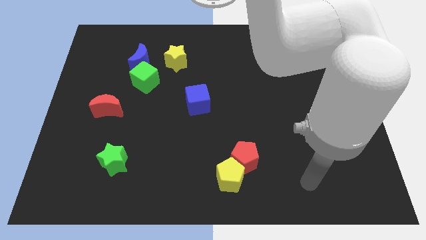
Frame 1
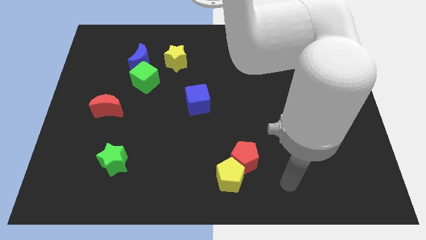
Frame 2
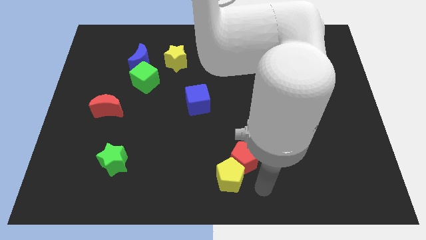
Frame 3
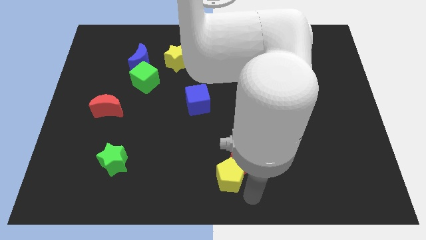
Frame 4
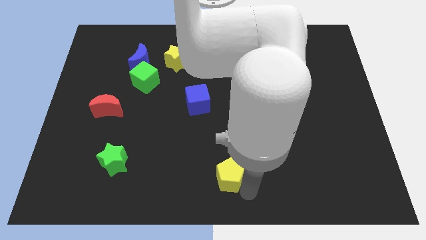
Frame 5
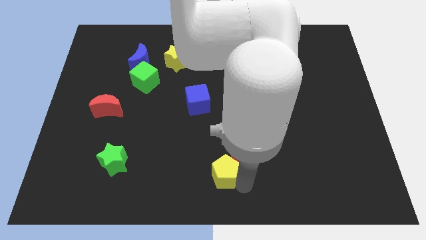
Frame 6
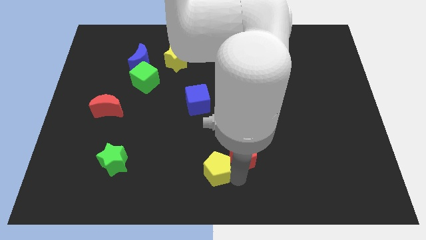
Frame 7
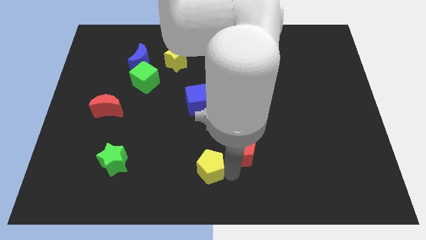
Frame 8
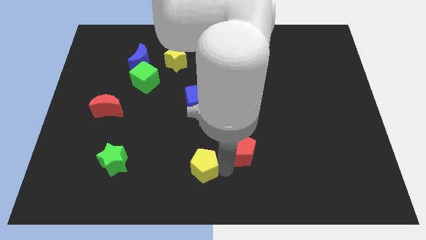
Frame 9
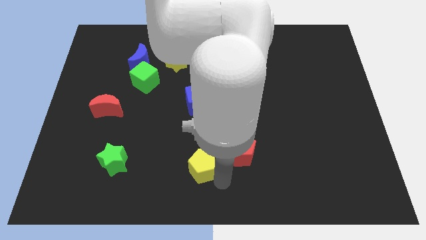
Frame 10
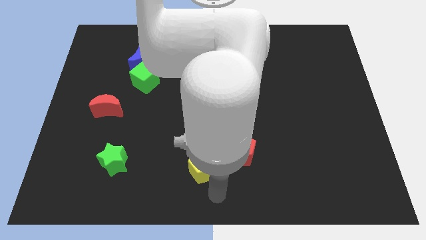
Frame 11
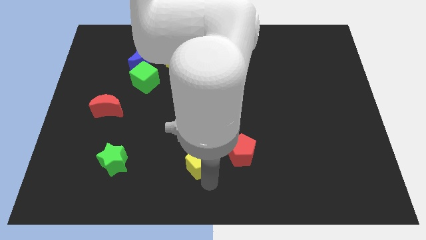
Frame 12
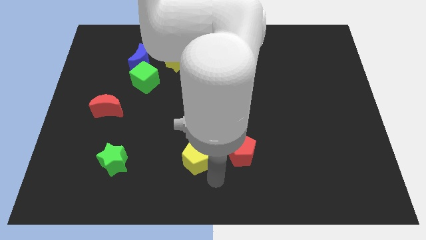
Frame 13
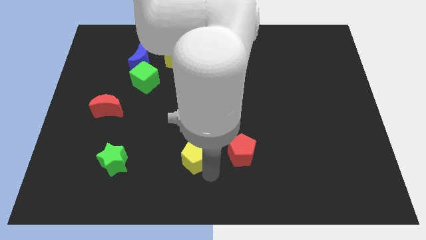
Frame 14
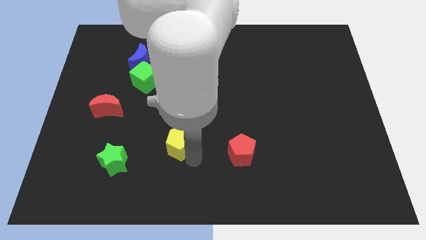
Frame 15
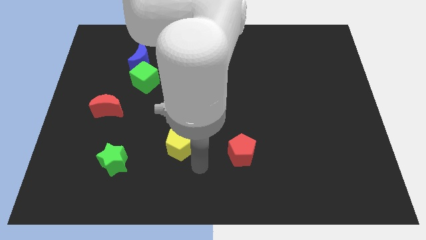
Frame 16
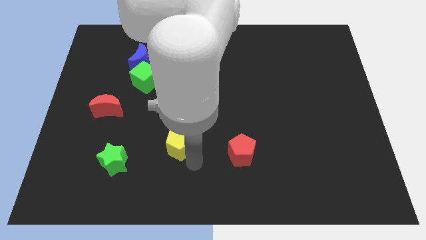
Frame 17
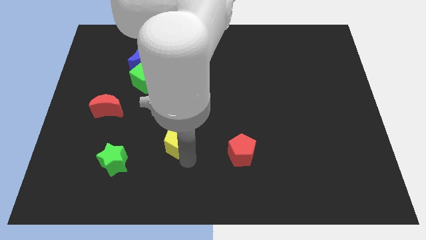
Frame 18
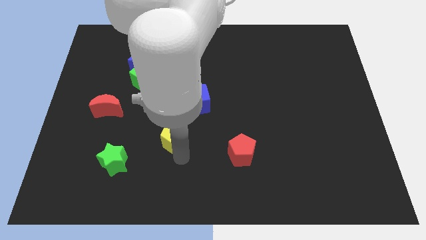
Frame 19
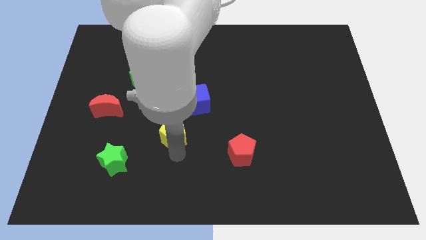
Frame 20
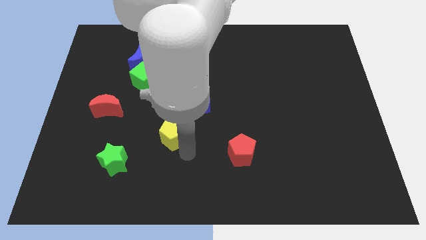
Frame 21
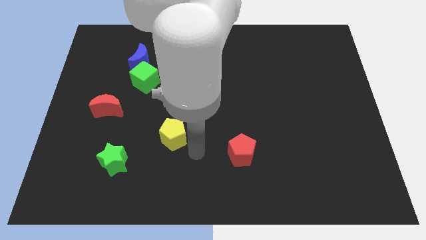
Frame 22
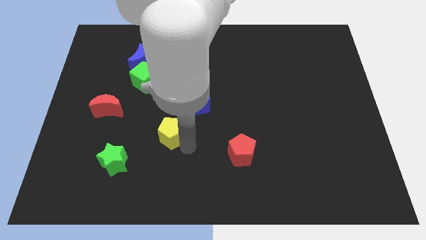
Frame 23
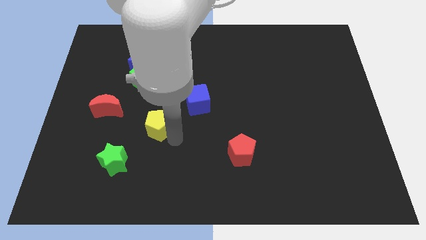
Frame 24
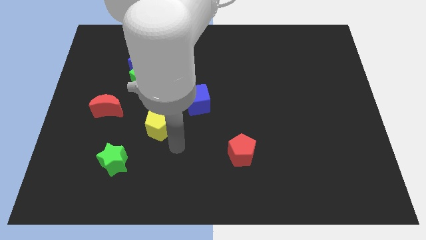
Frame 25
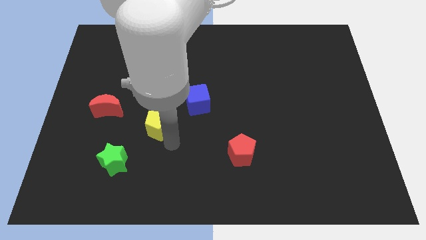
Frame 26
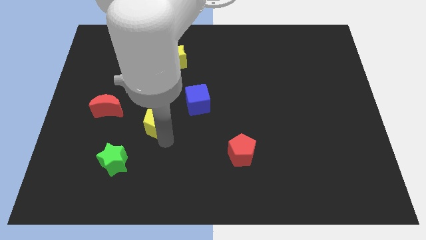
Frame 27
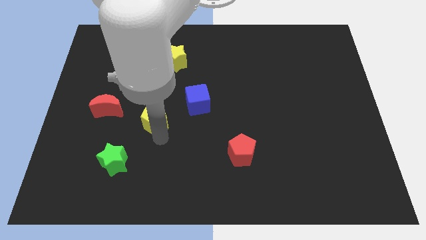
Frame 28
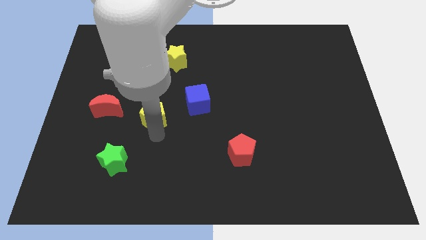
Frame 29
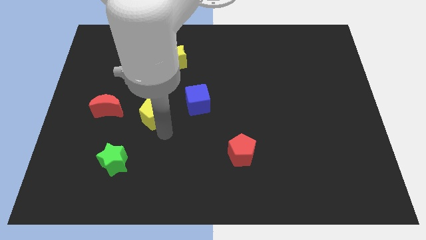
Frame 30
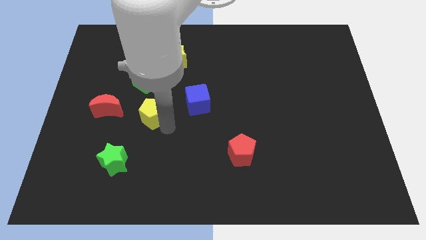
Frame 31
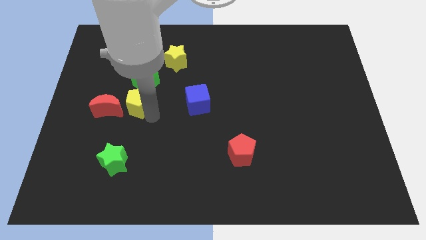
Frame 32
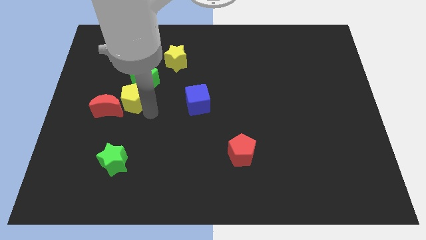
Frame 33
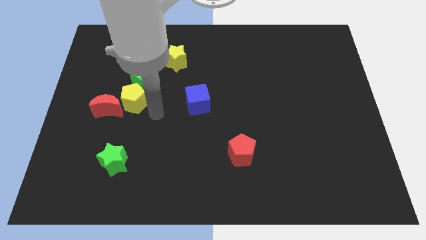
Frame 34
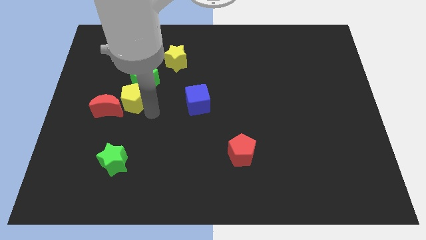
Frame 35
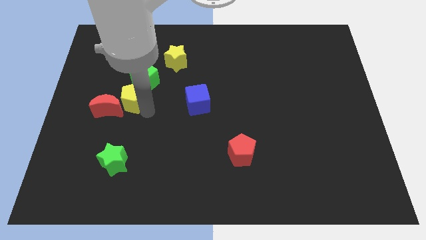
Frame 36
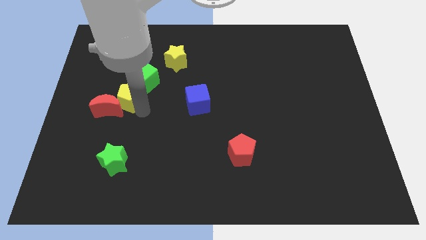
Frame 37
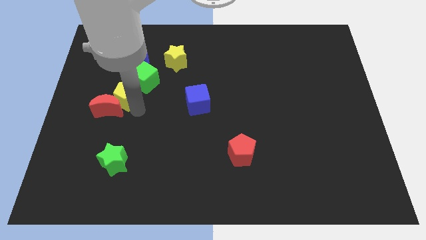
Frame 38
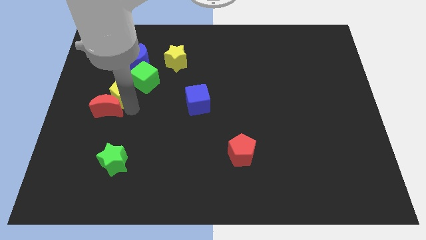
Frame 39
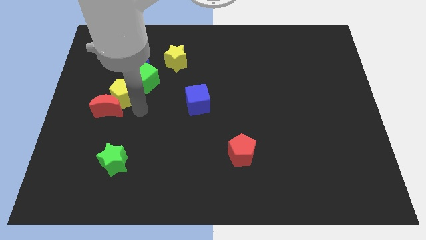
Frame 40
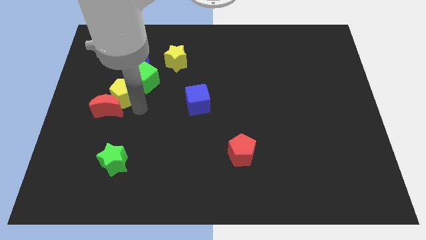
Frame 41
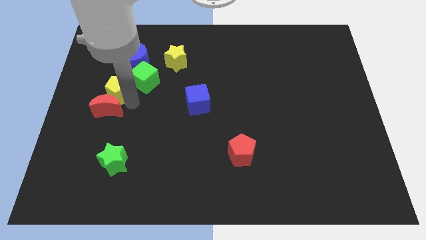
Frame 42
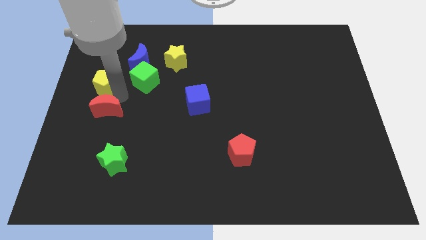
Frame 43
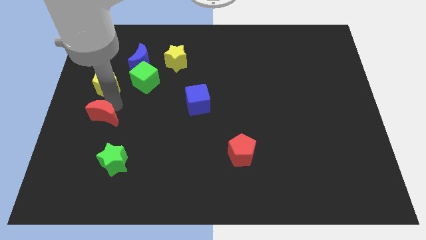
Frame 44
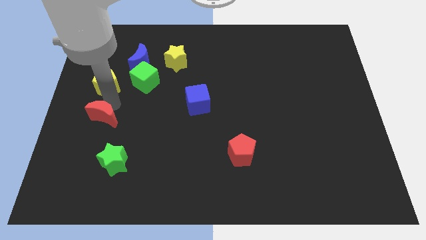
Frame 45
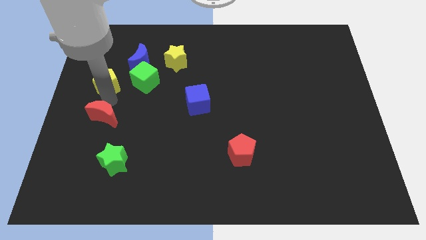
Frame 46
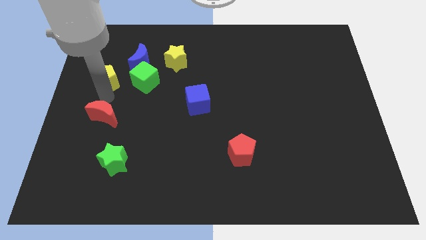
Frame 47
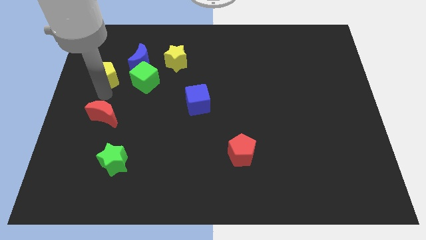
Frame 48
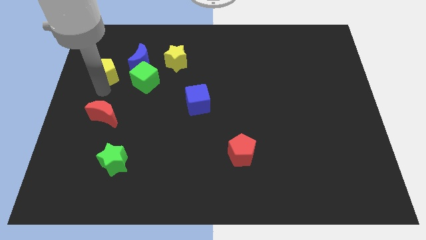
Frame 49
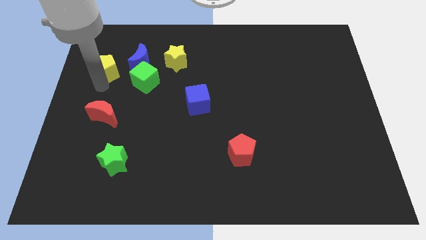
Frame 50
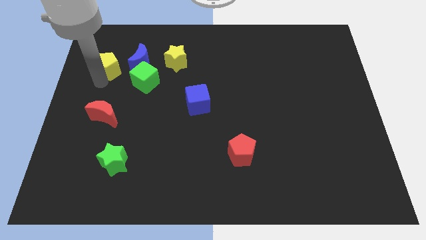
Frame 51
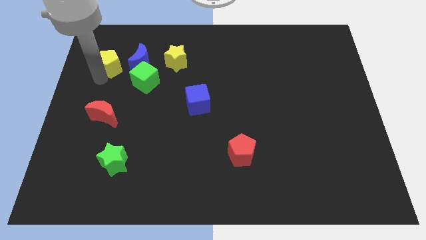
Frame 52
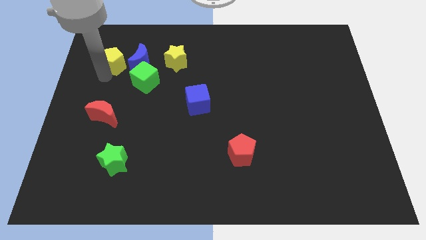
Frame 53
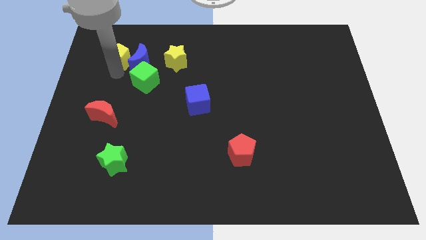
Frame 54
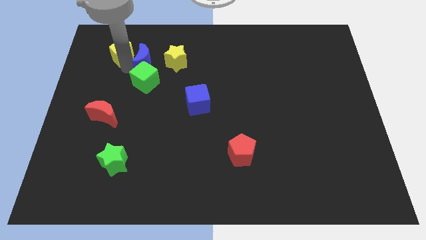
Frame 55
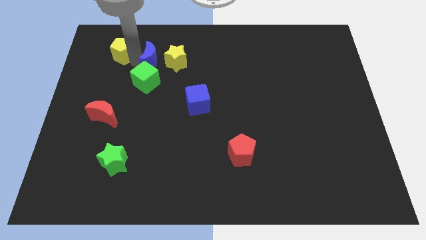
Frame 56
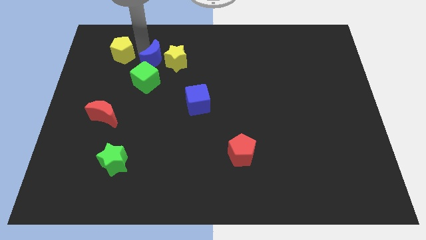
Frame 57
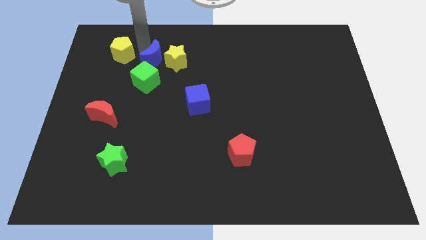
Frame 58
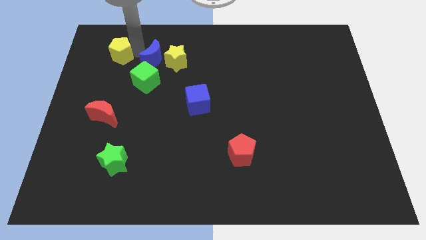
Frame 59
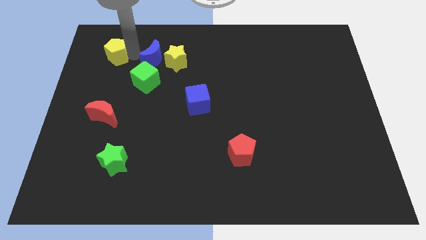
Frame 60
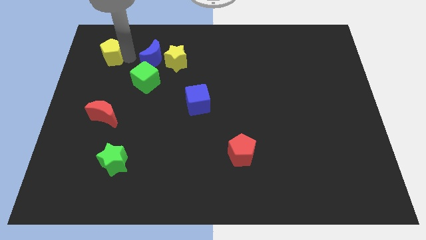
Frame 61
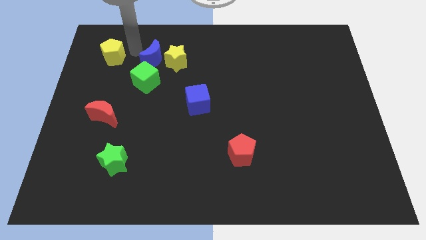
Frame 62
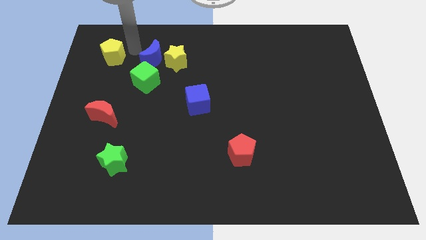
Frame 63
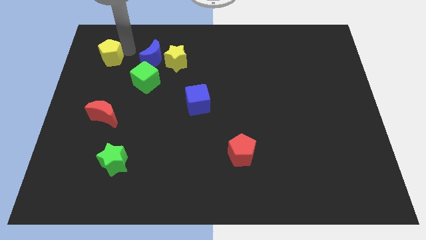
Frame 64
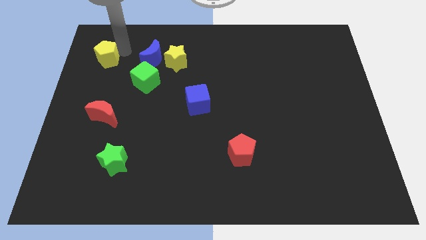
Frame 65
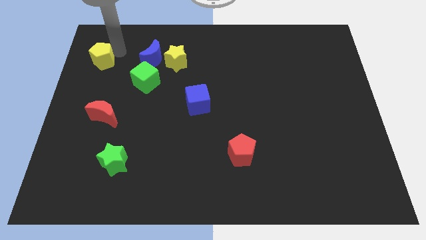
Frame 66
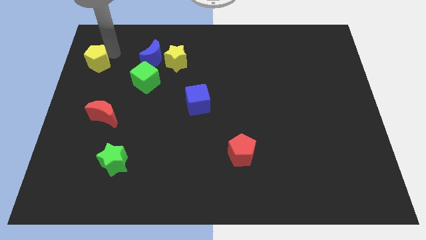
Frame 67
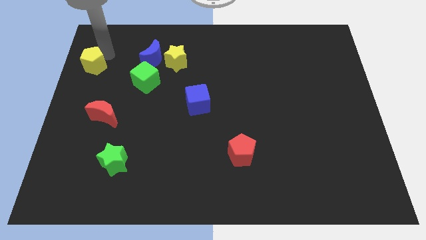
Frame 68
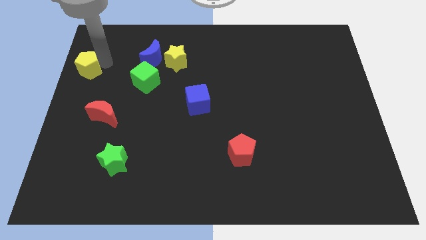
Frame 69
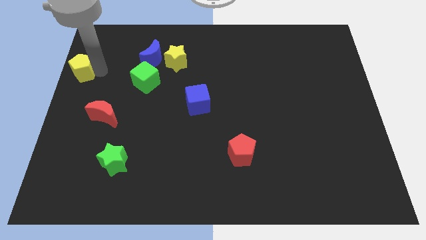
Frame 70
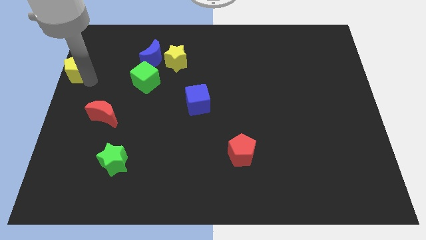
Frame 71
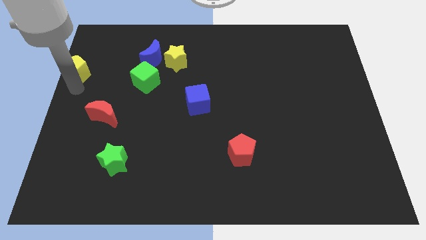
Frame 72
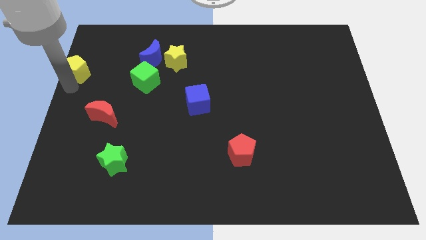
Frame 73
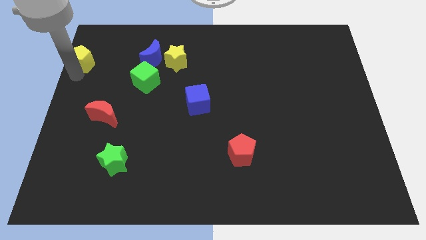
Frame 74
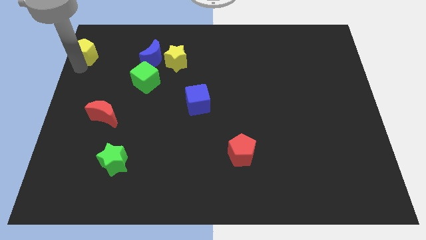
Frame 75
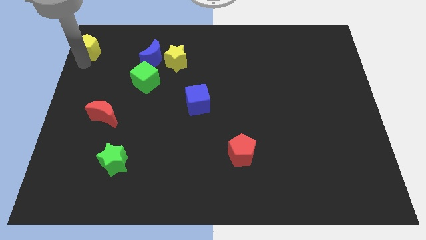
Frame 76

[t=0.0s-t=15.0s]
put the yellow pentagon to the top left
